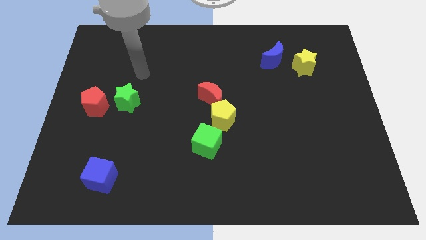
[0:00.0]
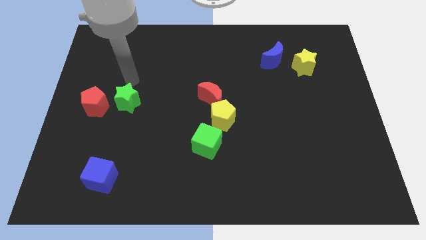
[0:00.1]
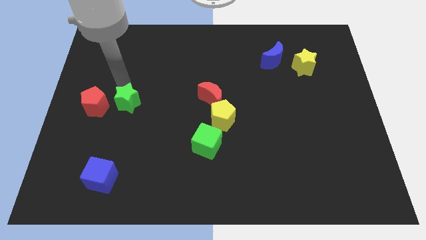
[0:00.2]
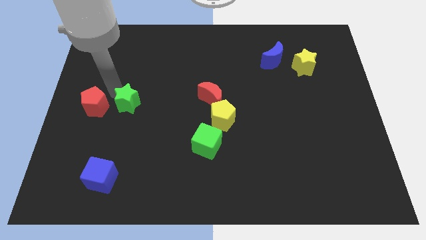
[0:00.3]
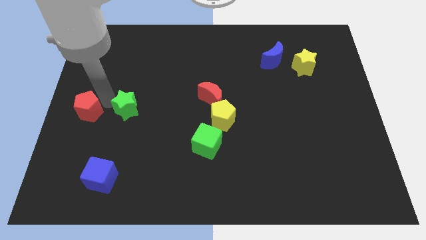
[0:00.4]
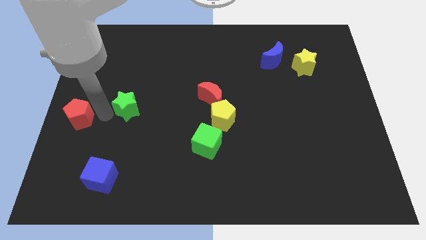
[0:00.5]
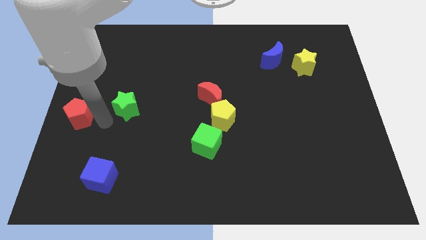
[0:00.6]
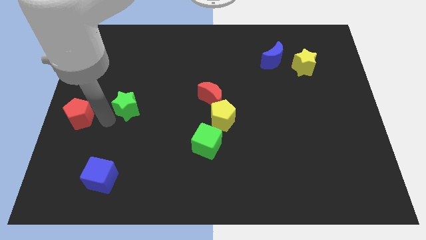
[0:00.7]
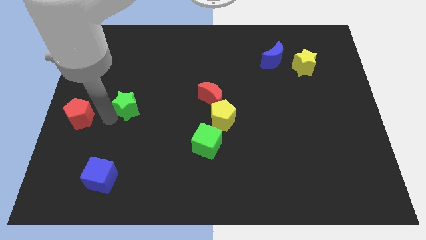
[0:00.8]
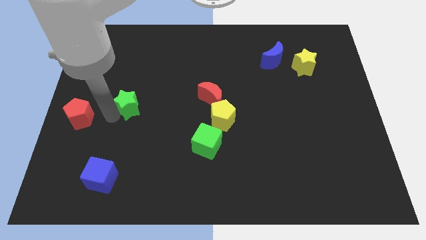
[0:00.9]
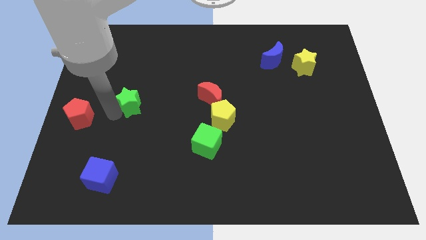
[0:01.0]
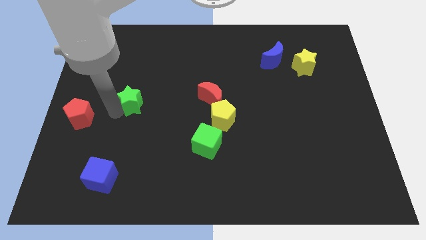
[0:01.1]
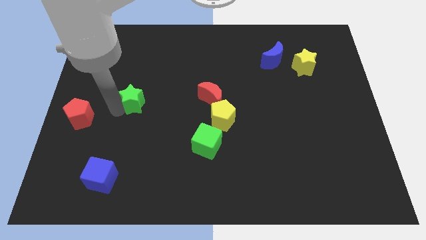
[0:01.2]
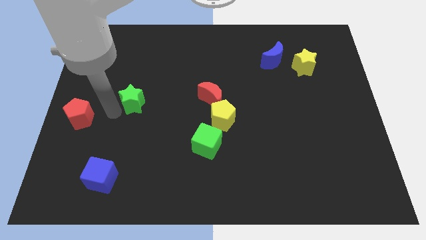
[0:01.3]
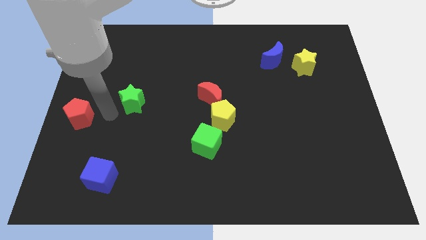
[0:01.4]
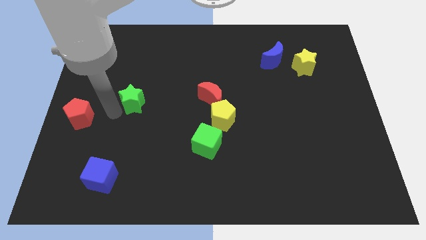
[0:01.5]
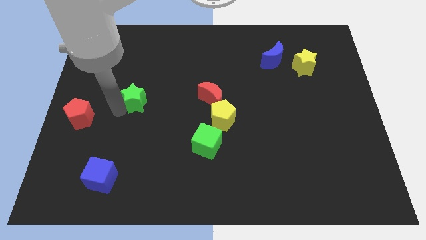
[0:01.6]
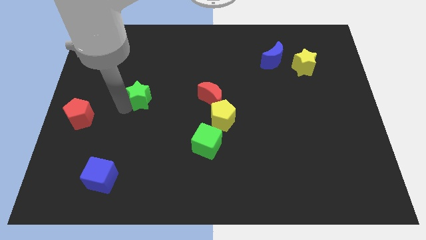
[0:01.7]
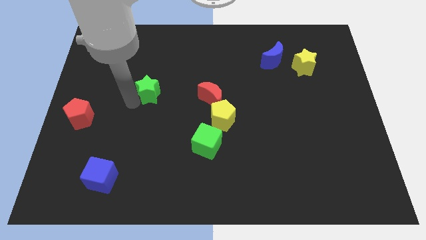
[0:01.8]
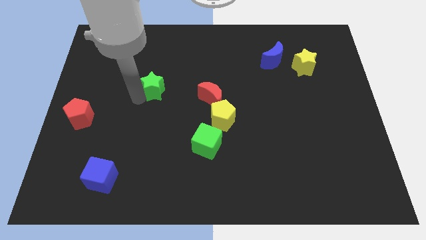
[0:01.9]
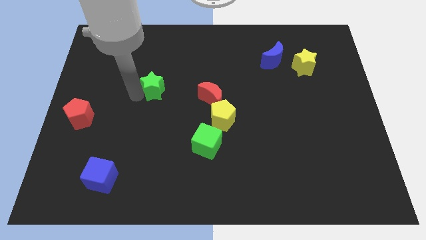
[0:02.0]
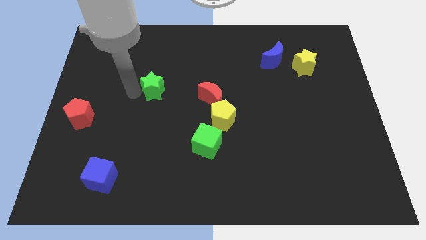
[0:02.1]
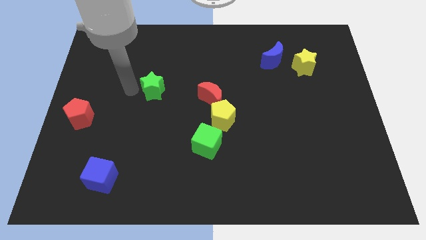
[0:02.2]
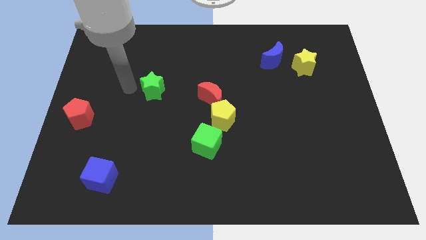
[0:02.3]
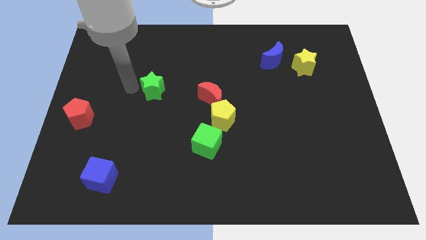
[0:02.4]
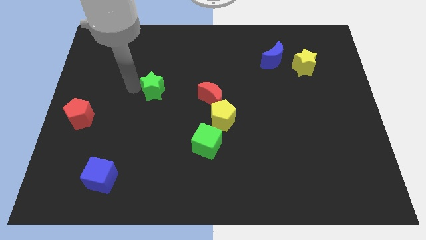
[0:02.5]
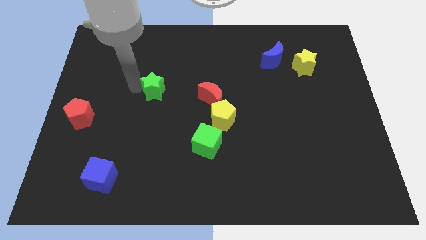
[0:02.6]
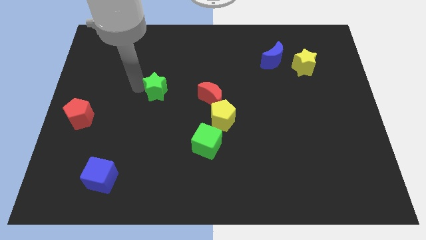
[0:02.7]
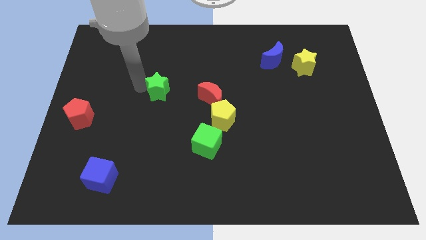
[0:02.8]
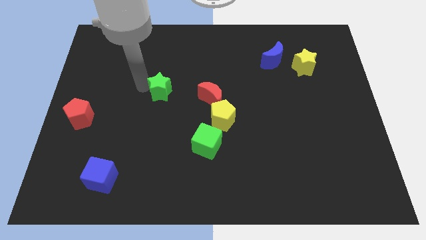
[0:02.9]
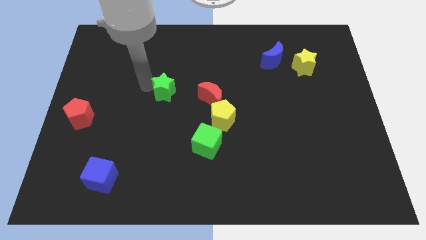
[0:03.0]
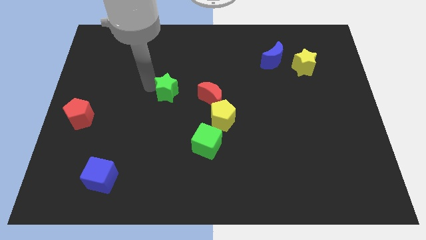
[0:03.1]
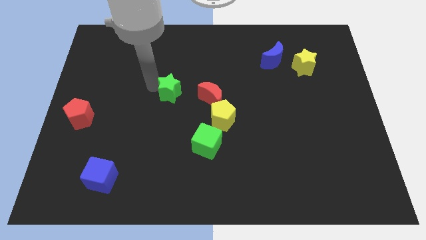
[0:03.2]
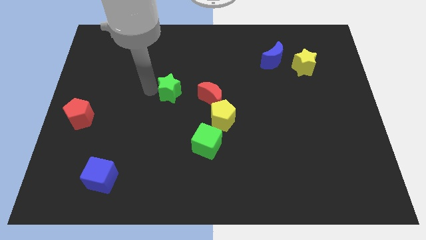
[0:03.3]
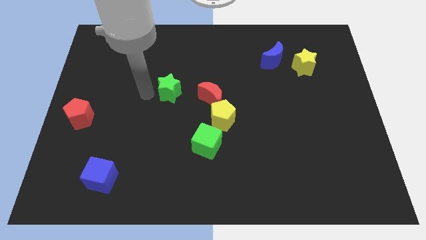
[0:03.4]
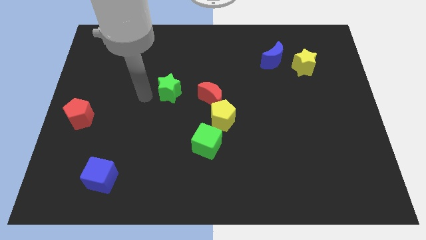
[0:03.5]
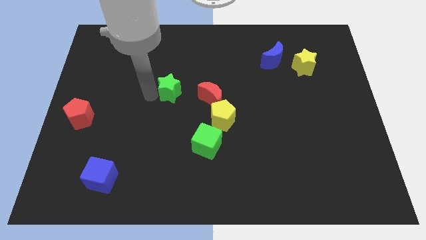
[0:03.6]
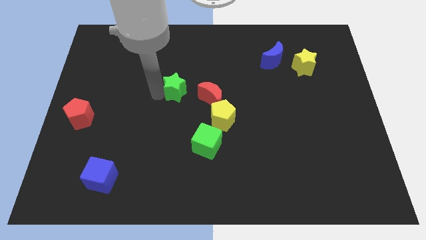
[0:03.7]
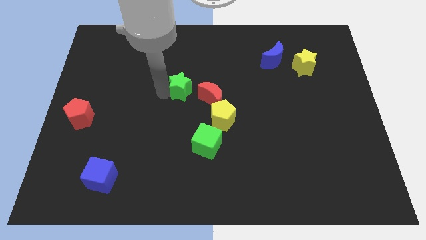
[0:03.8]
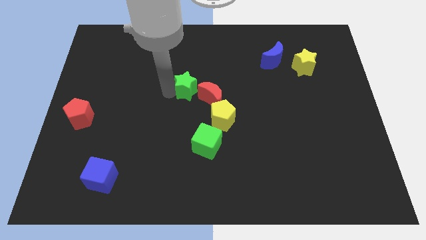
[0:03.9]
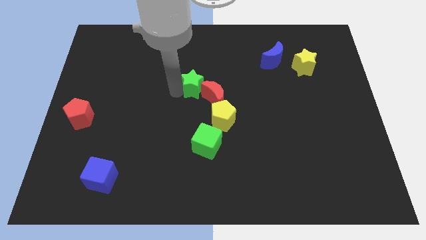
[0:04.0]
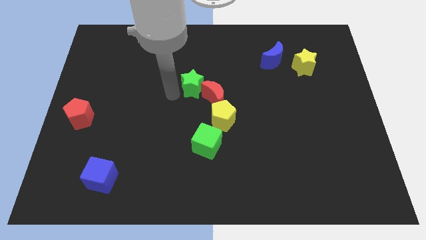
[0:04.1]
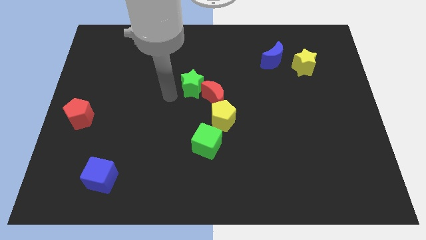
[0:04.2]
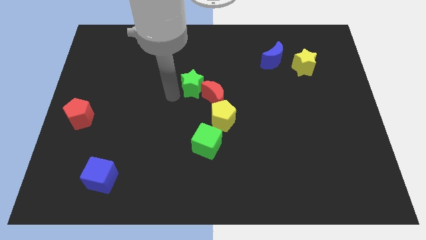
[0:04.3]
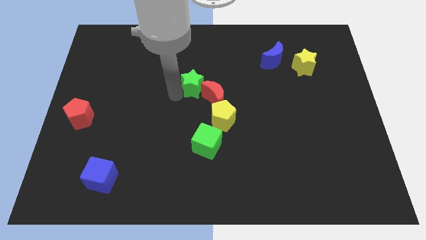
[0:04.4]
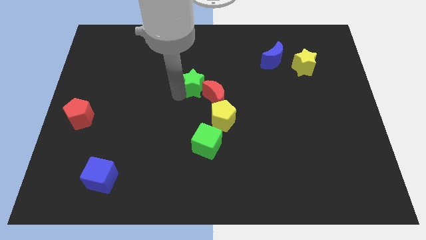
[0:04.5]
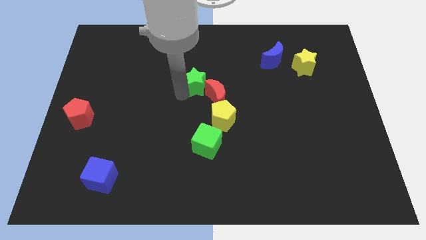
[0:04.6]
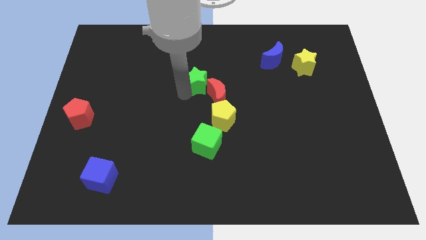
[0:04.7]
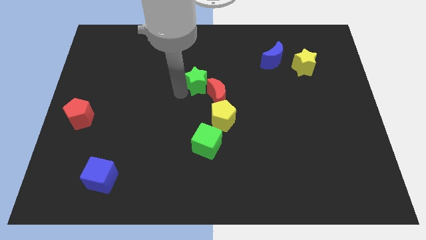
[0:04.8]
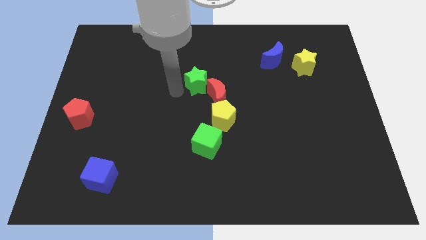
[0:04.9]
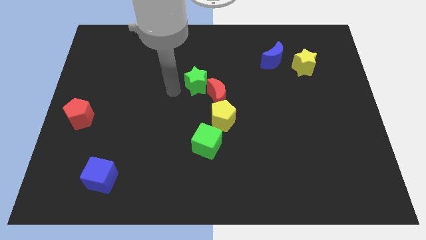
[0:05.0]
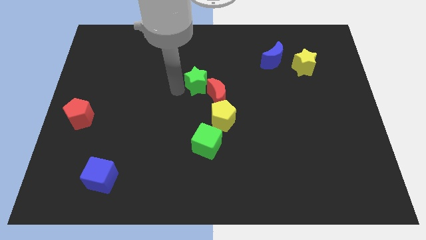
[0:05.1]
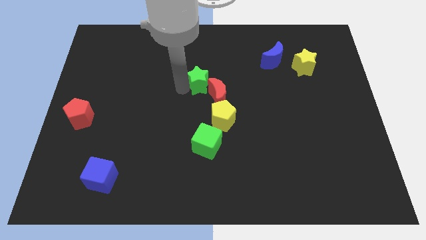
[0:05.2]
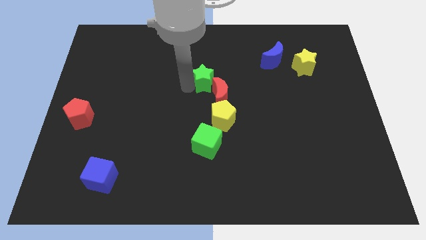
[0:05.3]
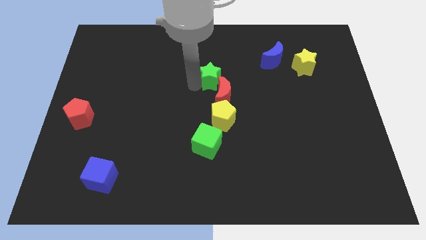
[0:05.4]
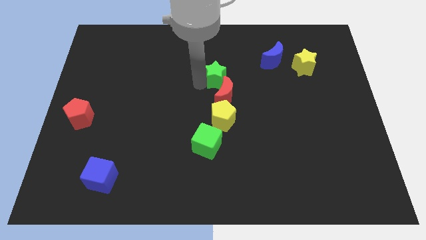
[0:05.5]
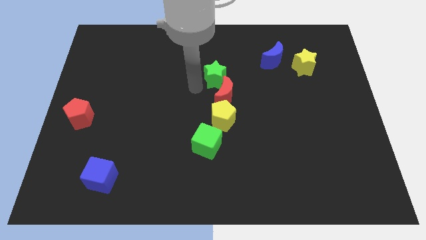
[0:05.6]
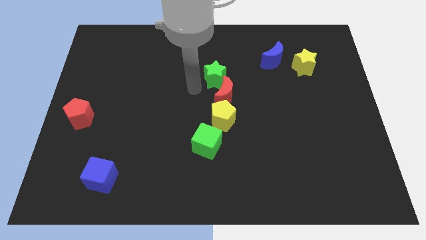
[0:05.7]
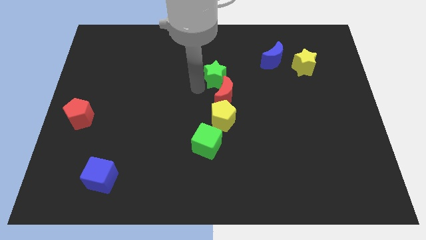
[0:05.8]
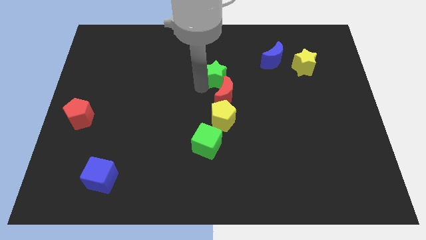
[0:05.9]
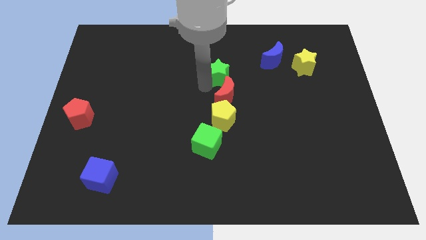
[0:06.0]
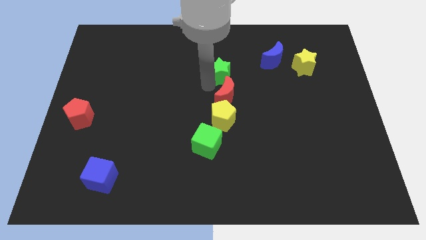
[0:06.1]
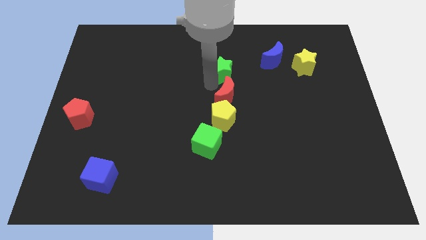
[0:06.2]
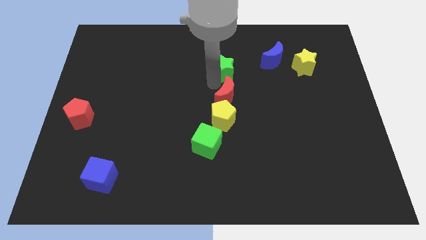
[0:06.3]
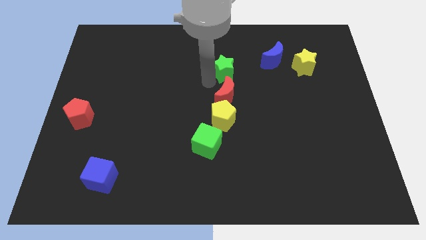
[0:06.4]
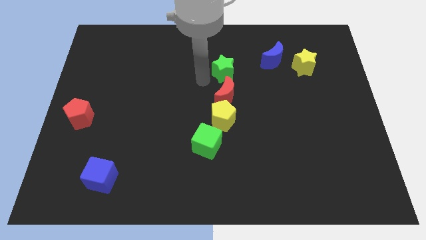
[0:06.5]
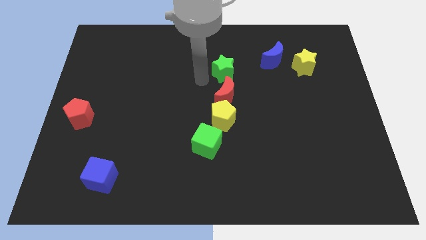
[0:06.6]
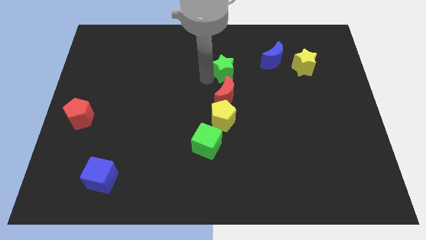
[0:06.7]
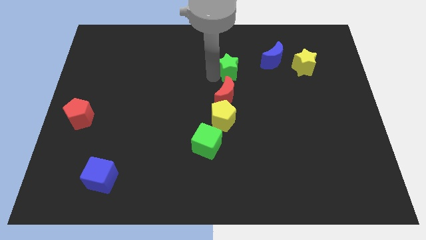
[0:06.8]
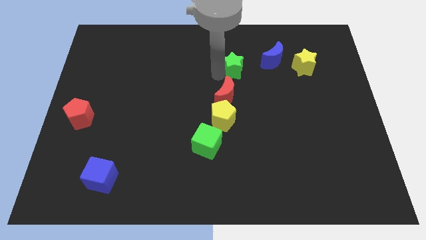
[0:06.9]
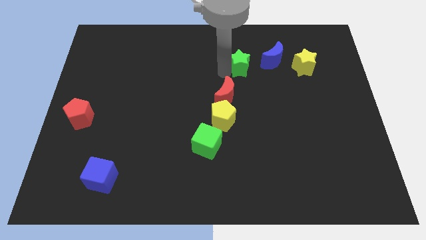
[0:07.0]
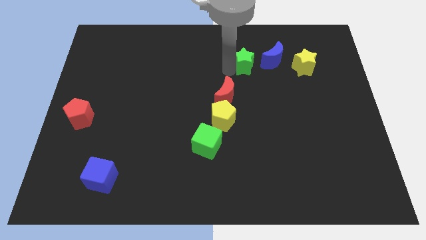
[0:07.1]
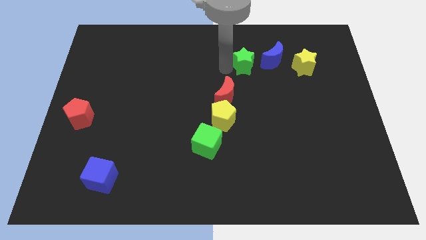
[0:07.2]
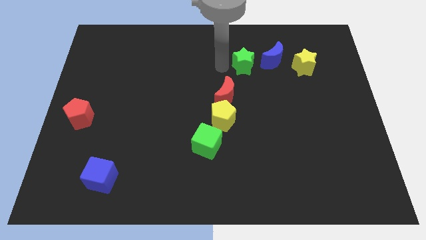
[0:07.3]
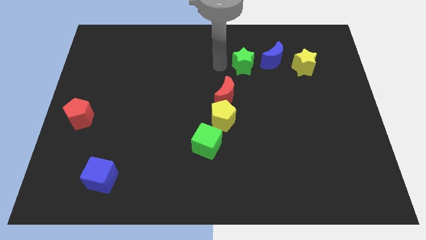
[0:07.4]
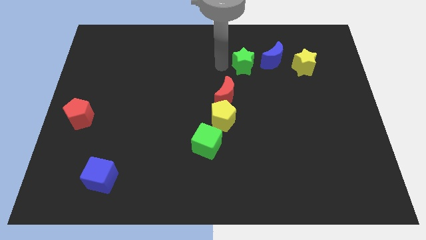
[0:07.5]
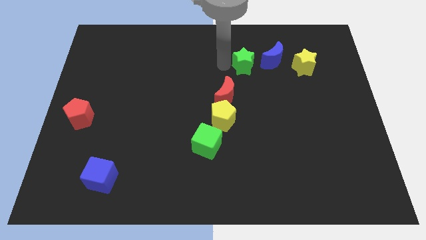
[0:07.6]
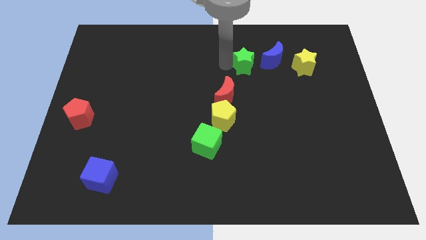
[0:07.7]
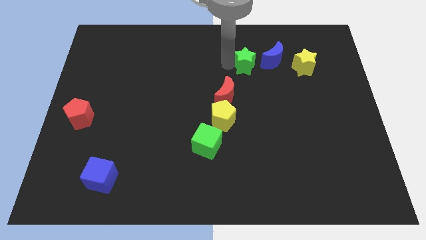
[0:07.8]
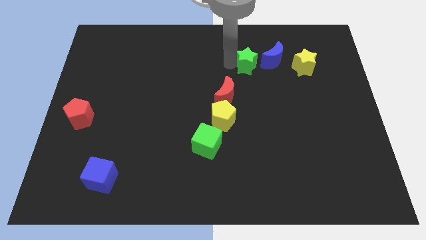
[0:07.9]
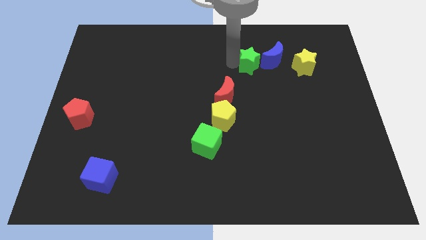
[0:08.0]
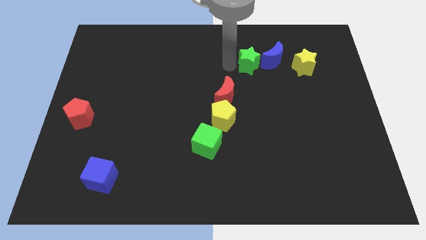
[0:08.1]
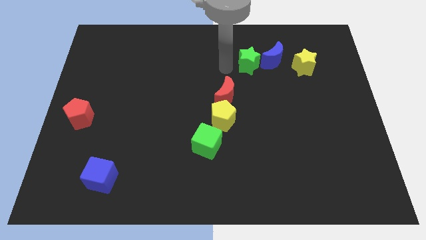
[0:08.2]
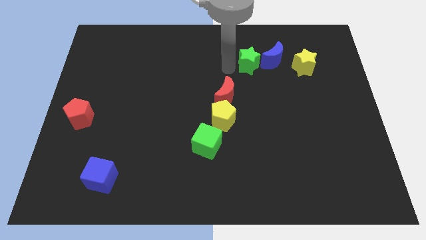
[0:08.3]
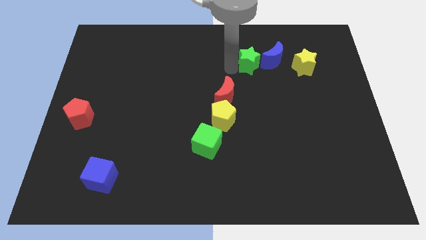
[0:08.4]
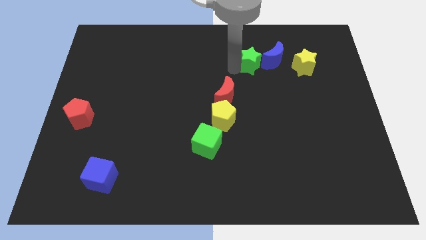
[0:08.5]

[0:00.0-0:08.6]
put the green star close to the blue moon
